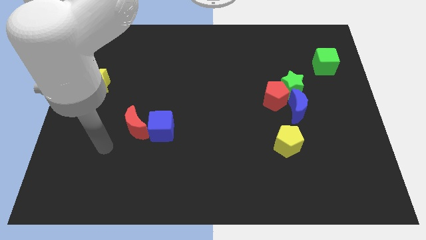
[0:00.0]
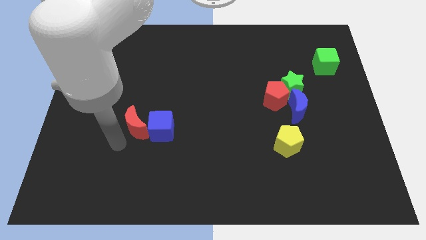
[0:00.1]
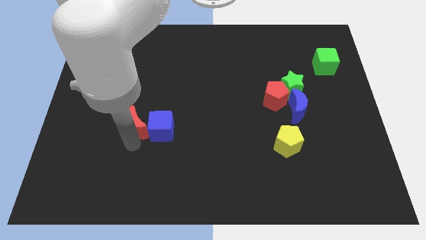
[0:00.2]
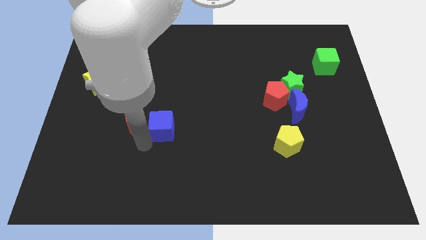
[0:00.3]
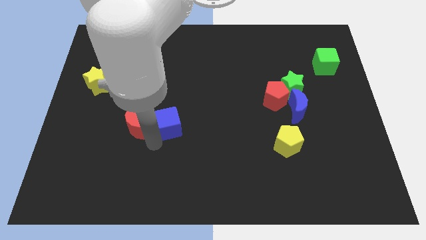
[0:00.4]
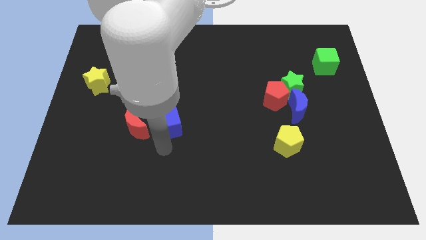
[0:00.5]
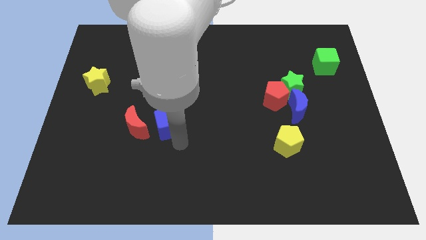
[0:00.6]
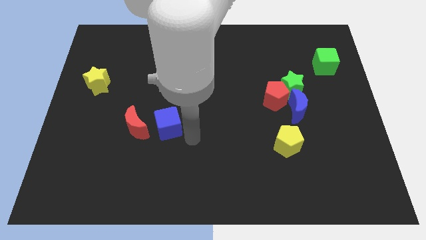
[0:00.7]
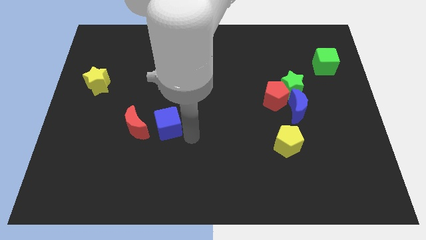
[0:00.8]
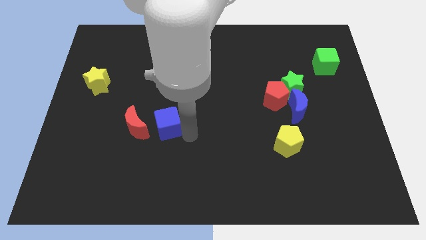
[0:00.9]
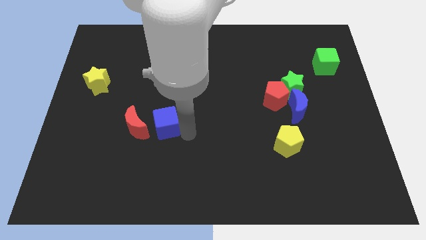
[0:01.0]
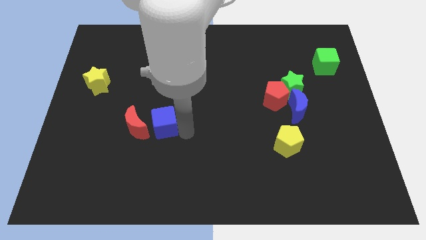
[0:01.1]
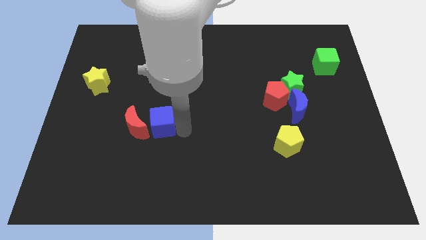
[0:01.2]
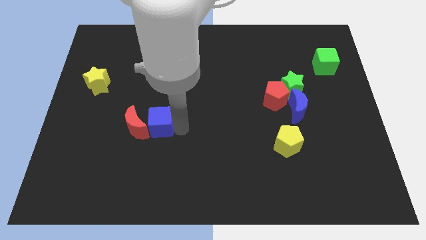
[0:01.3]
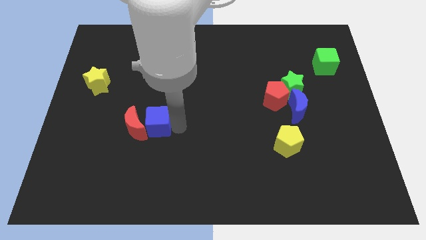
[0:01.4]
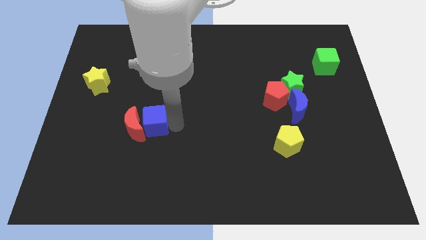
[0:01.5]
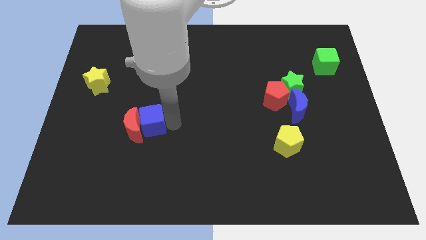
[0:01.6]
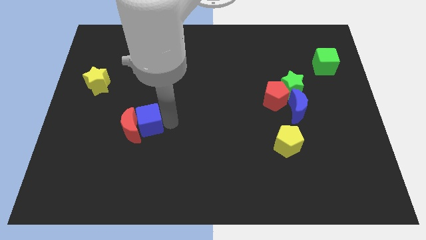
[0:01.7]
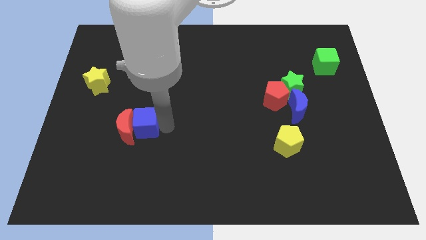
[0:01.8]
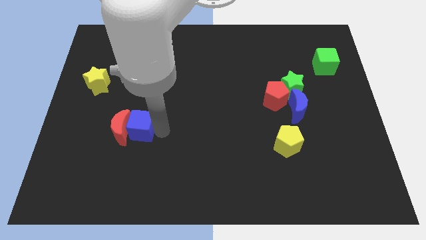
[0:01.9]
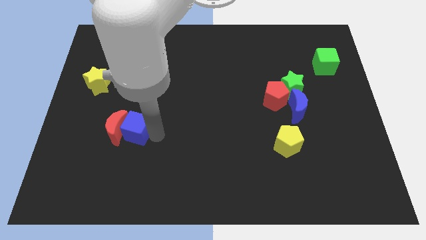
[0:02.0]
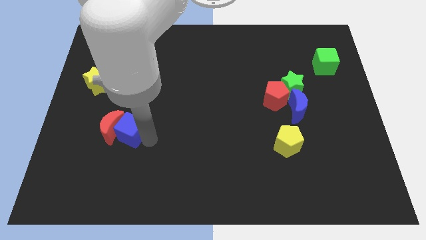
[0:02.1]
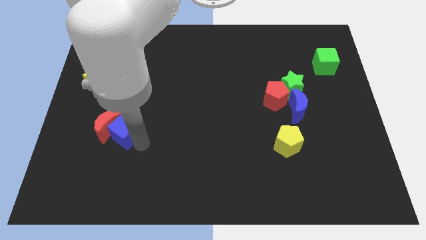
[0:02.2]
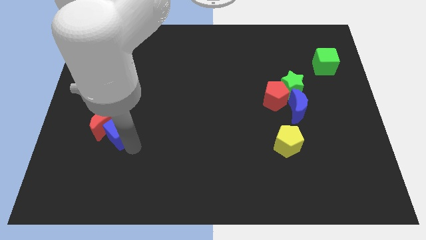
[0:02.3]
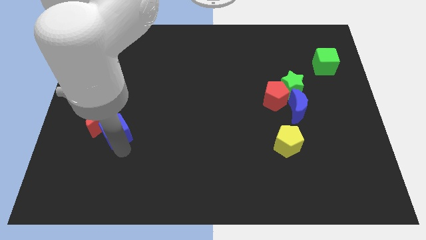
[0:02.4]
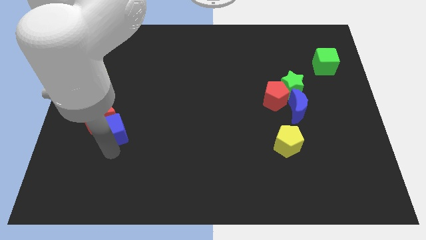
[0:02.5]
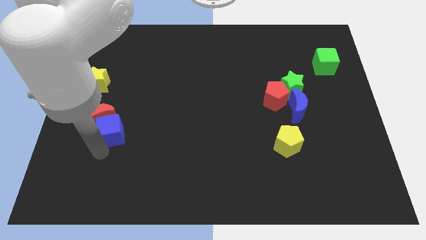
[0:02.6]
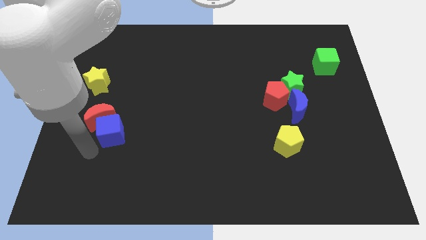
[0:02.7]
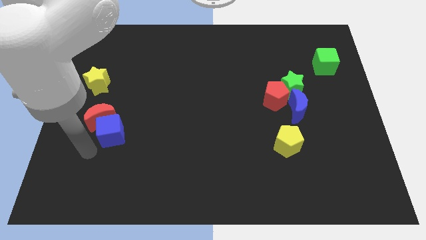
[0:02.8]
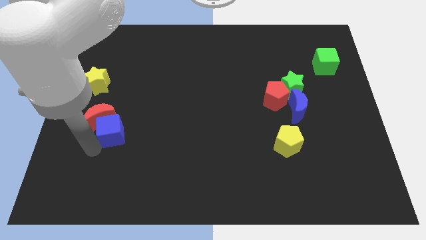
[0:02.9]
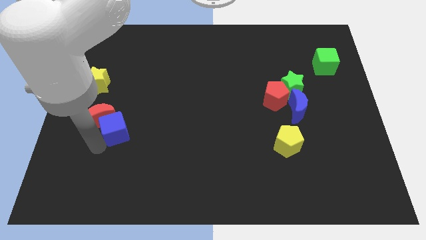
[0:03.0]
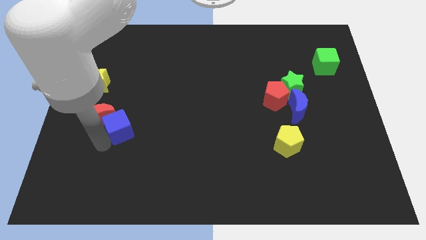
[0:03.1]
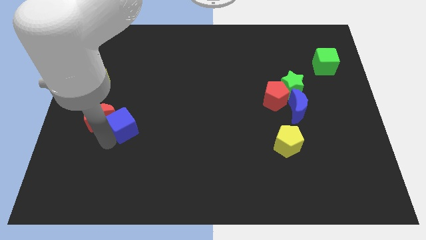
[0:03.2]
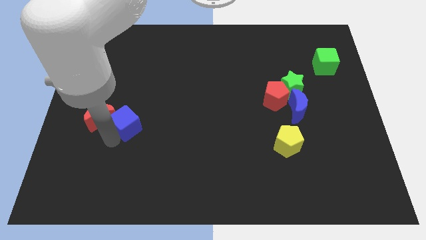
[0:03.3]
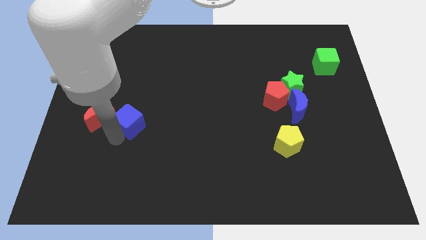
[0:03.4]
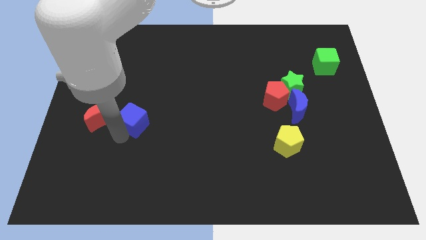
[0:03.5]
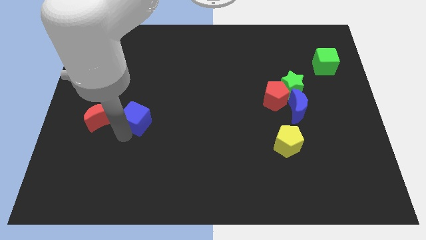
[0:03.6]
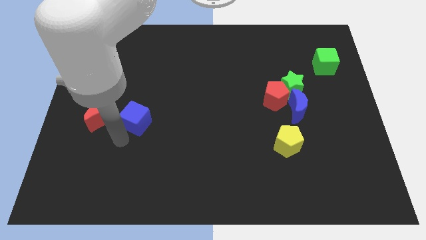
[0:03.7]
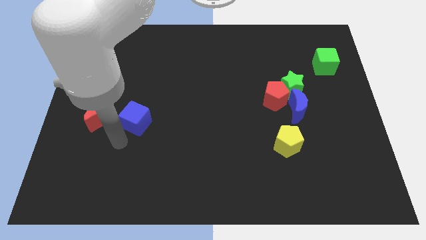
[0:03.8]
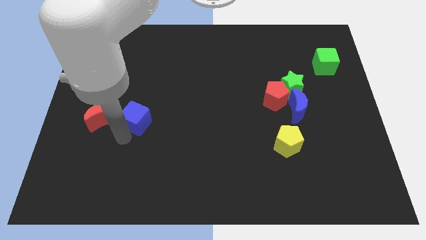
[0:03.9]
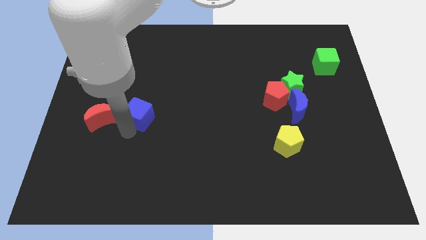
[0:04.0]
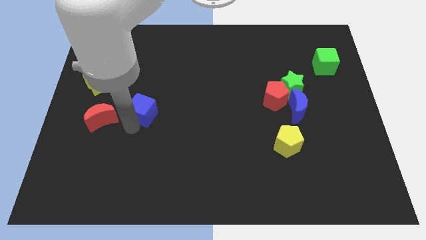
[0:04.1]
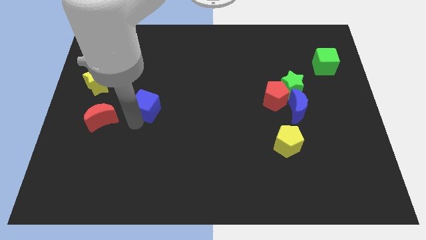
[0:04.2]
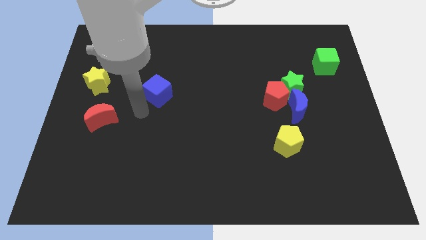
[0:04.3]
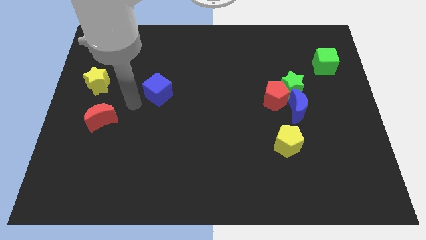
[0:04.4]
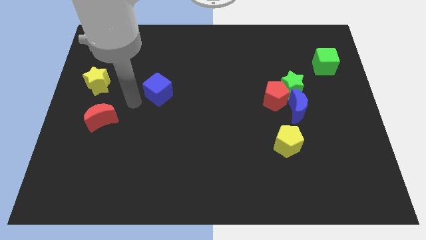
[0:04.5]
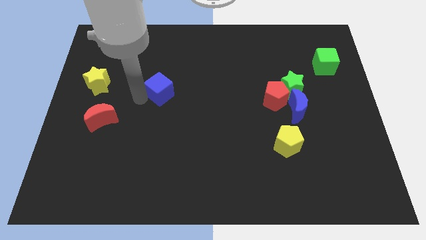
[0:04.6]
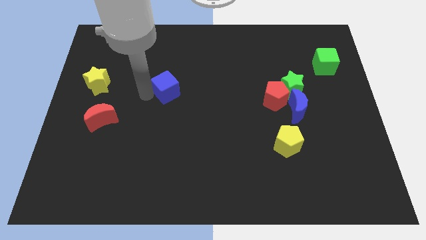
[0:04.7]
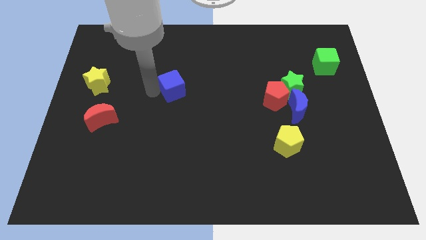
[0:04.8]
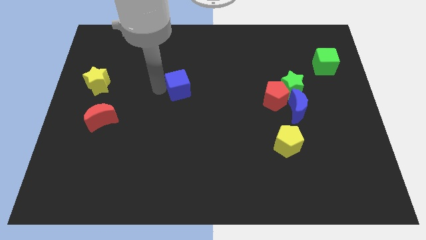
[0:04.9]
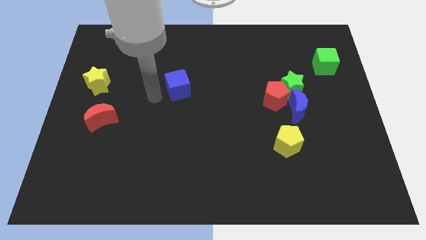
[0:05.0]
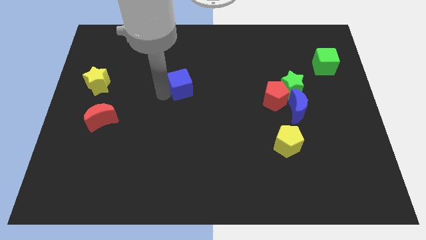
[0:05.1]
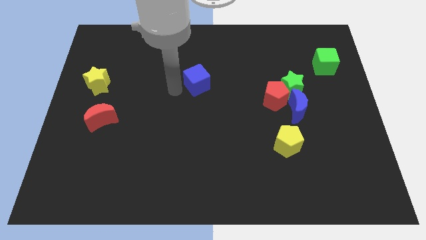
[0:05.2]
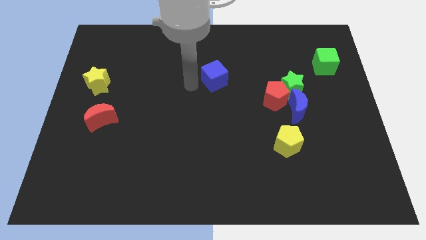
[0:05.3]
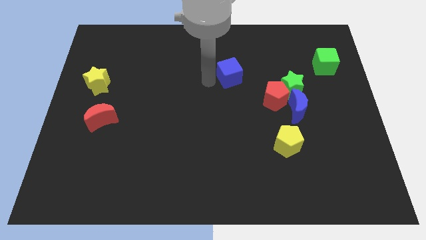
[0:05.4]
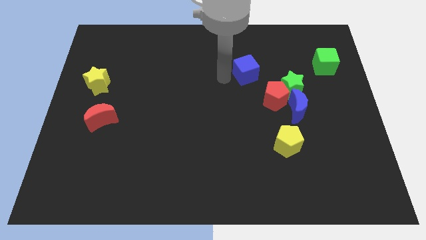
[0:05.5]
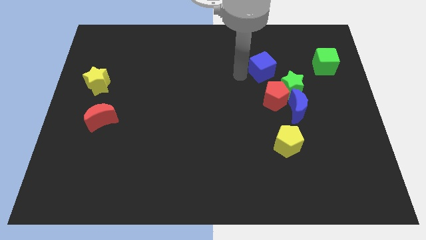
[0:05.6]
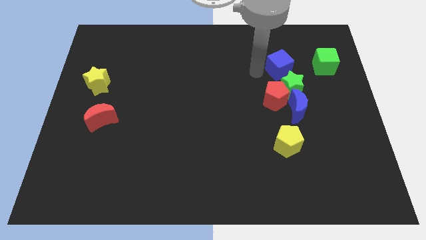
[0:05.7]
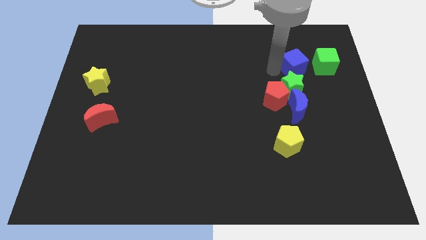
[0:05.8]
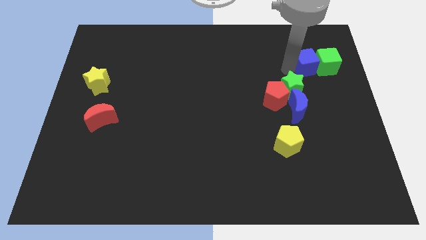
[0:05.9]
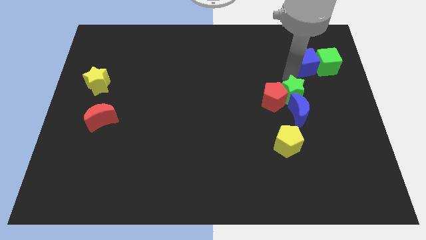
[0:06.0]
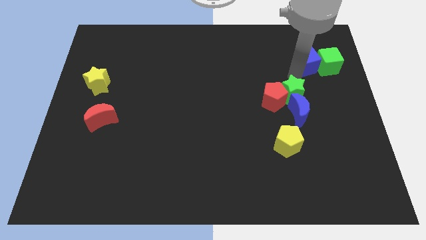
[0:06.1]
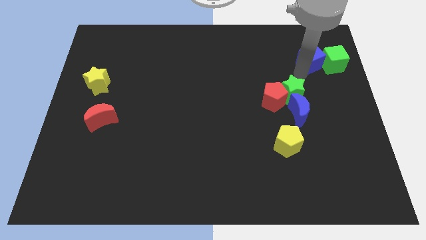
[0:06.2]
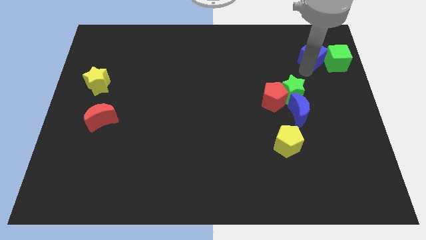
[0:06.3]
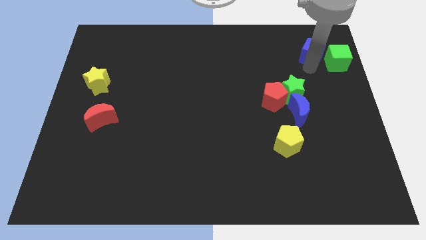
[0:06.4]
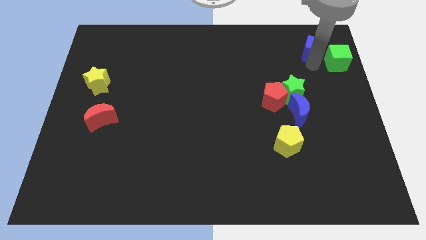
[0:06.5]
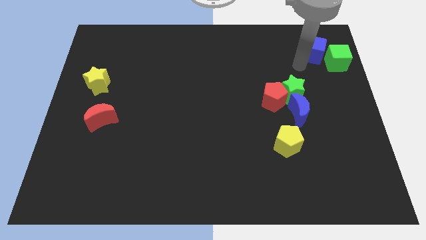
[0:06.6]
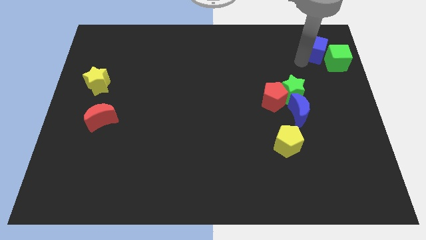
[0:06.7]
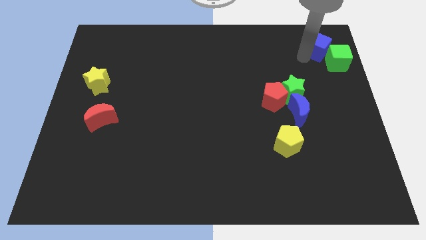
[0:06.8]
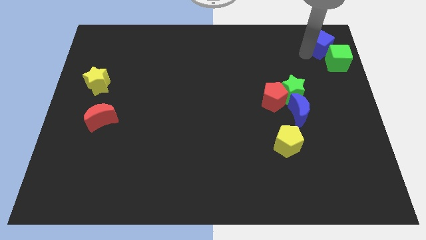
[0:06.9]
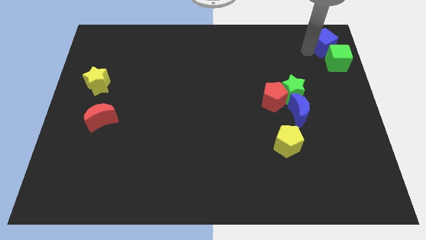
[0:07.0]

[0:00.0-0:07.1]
put the blue cube to the top right of the board
